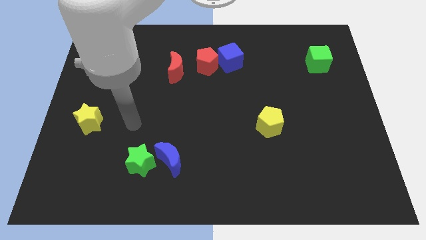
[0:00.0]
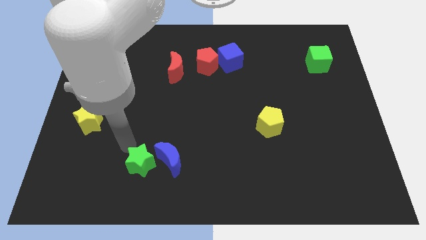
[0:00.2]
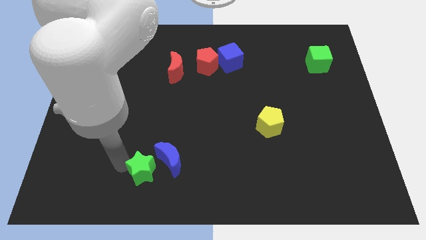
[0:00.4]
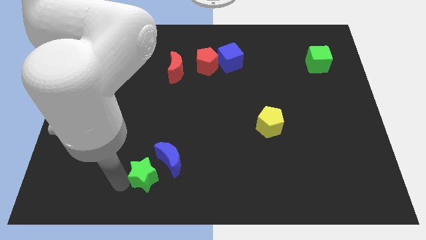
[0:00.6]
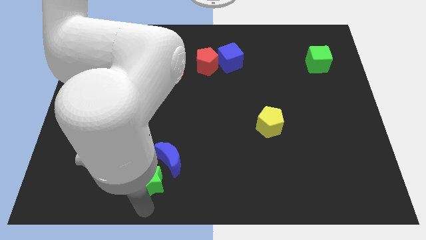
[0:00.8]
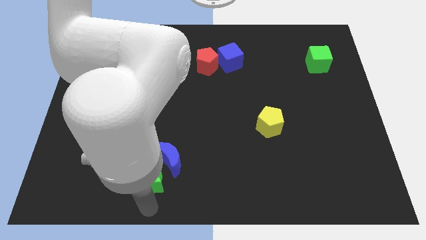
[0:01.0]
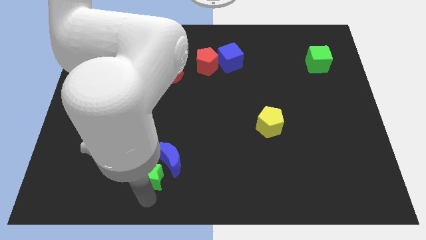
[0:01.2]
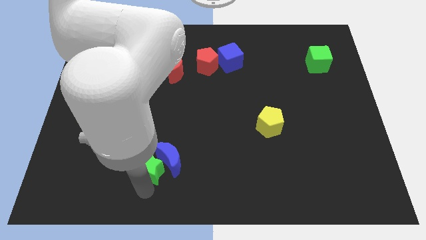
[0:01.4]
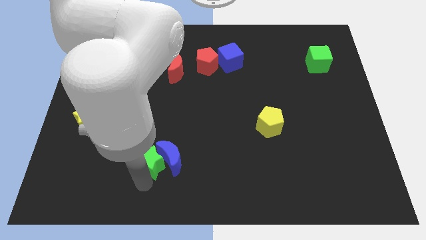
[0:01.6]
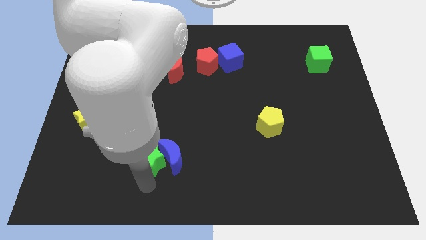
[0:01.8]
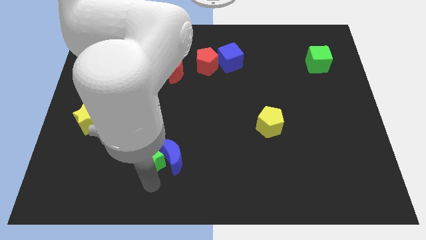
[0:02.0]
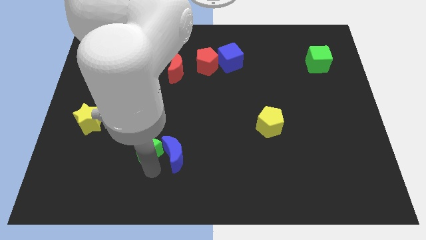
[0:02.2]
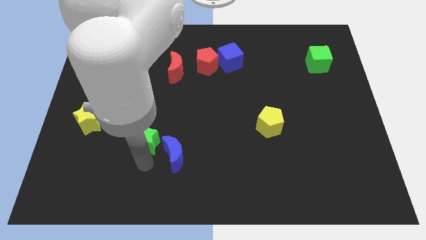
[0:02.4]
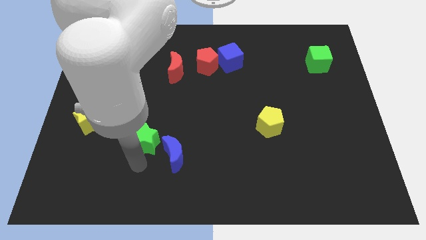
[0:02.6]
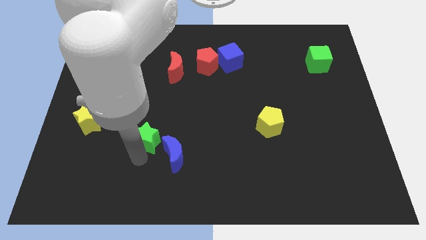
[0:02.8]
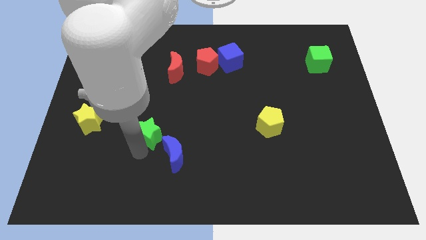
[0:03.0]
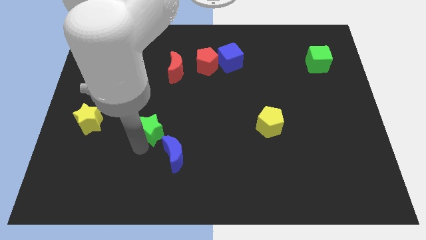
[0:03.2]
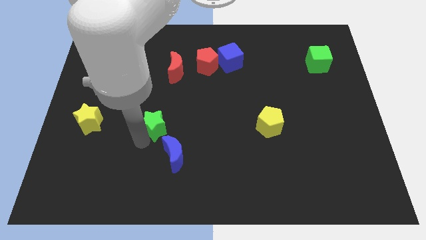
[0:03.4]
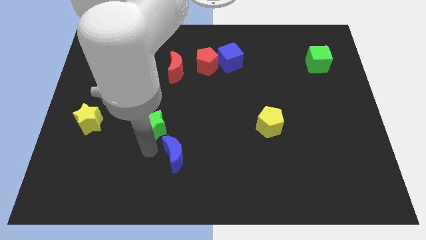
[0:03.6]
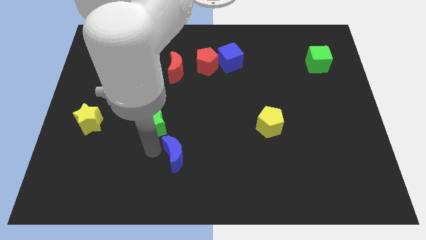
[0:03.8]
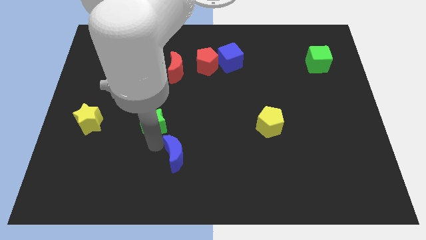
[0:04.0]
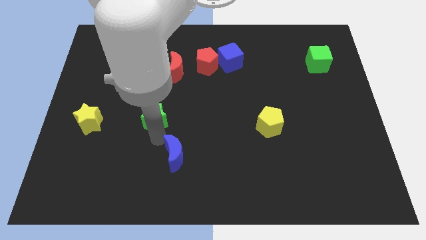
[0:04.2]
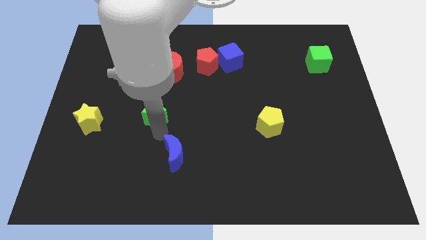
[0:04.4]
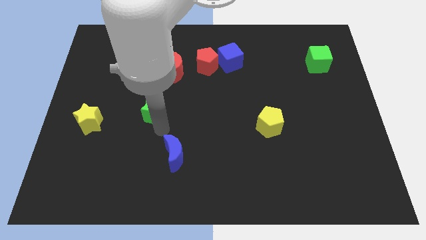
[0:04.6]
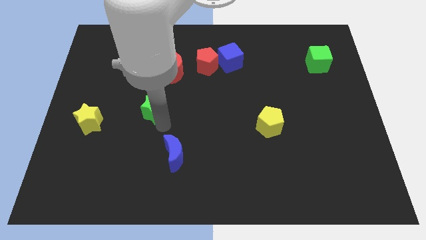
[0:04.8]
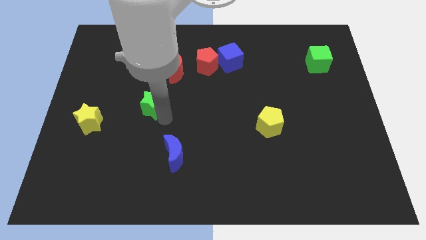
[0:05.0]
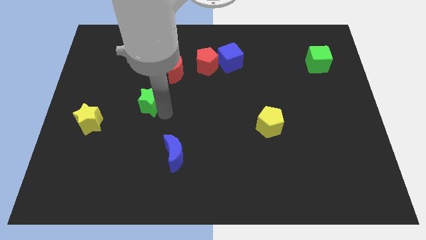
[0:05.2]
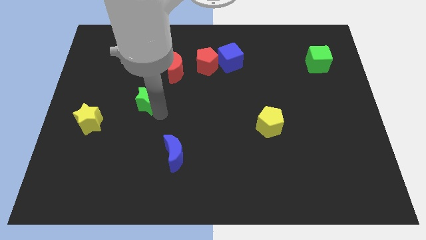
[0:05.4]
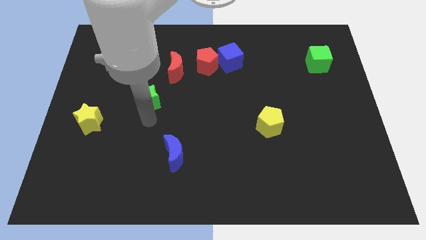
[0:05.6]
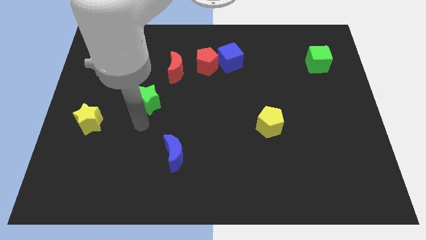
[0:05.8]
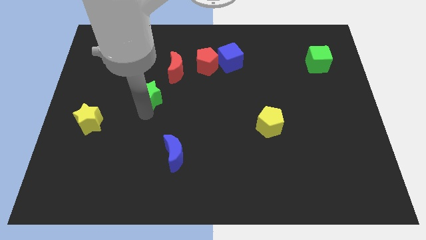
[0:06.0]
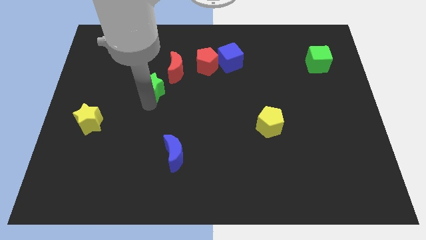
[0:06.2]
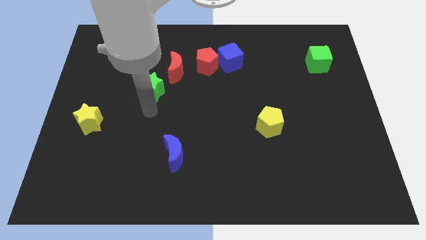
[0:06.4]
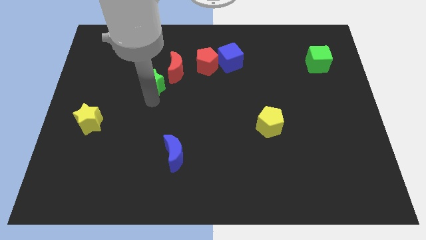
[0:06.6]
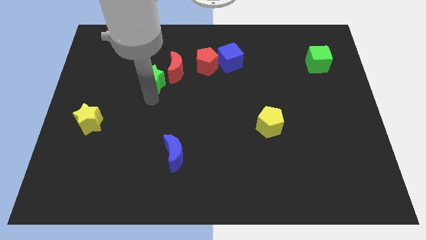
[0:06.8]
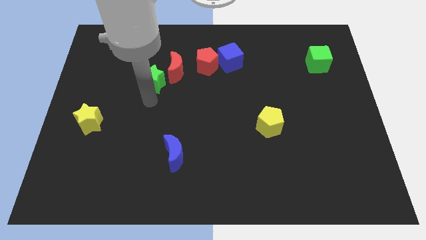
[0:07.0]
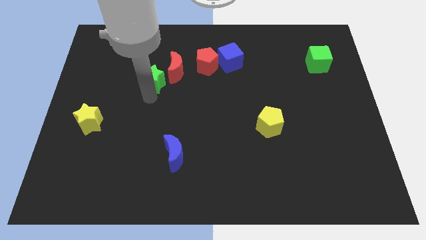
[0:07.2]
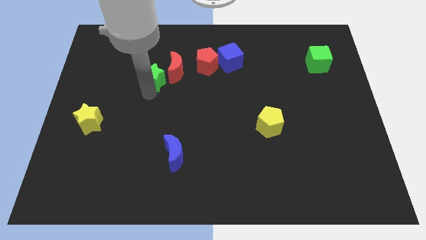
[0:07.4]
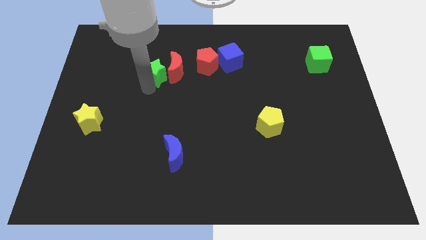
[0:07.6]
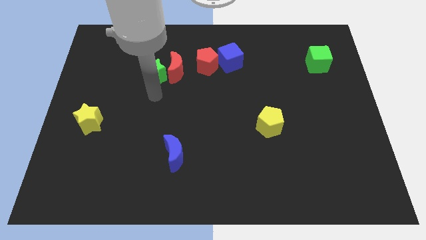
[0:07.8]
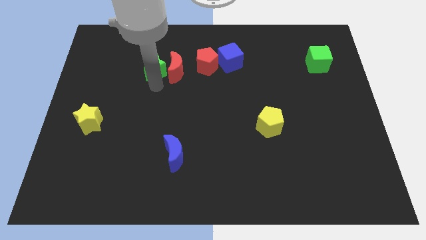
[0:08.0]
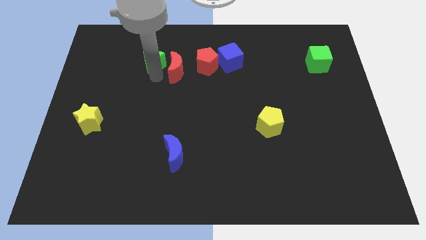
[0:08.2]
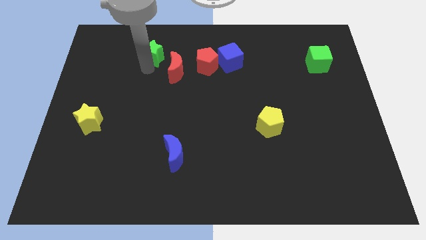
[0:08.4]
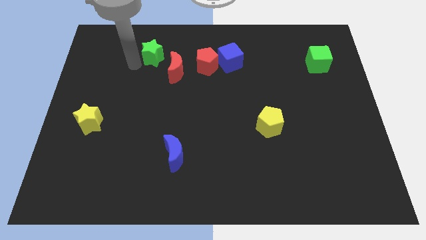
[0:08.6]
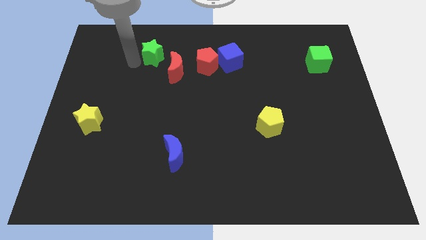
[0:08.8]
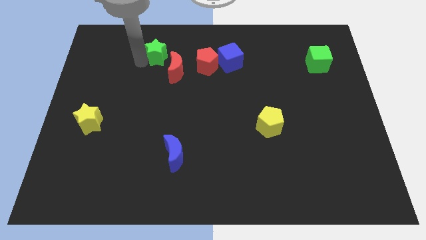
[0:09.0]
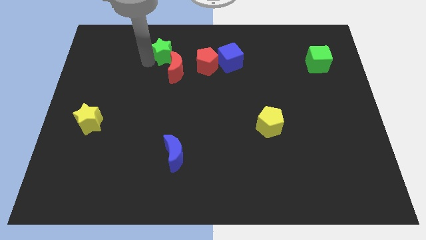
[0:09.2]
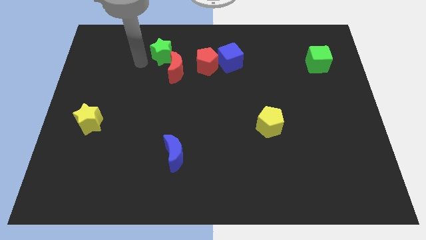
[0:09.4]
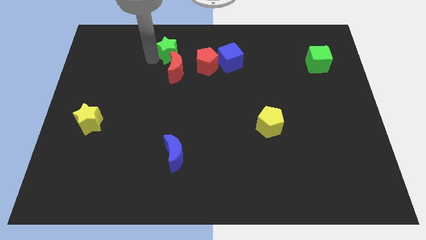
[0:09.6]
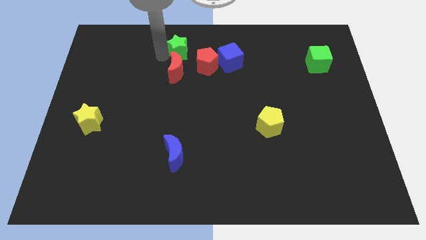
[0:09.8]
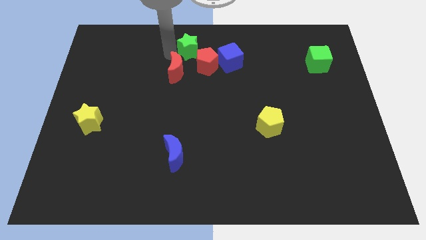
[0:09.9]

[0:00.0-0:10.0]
push the green star to the top side

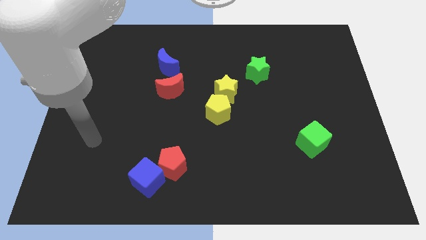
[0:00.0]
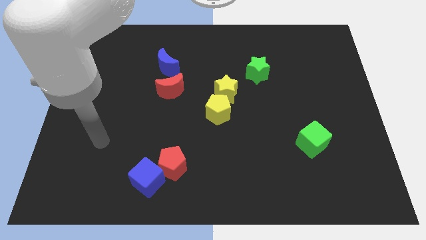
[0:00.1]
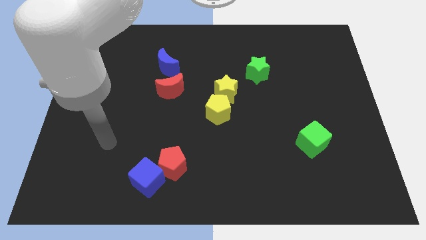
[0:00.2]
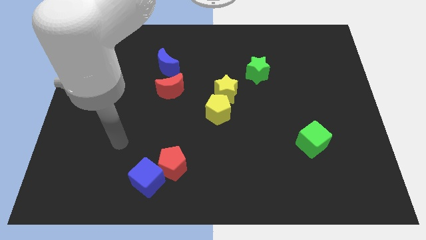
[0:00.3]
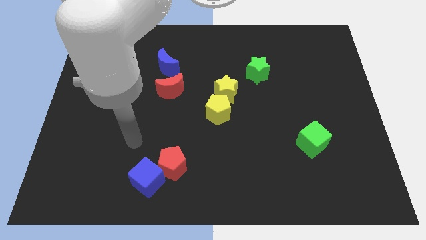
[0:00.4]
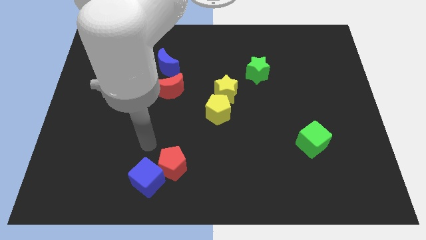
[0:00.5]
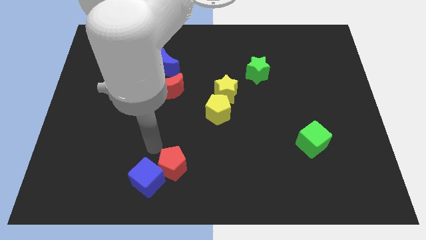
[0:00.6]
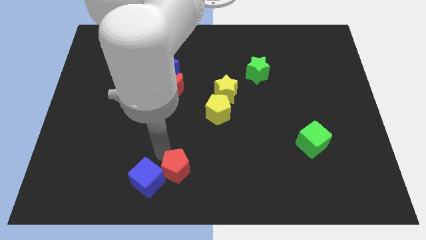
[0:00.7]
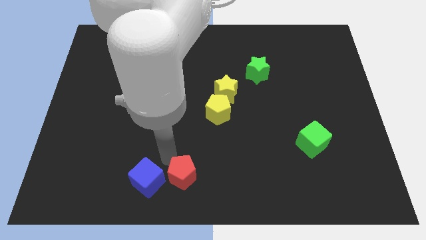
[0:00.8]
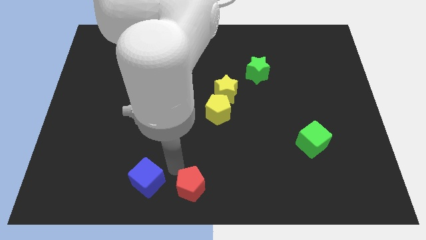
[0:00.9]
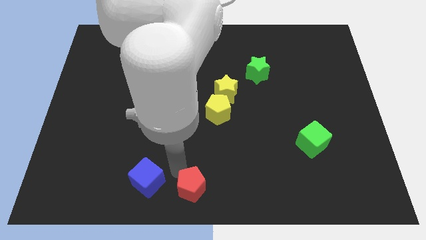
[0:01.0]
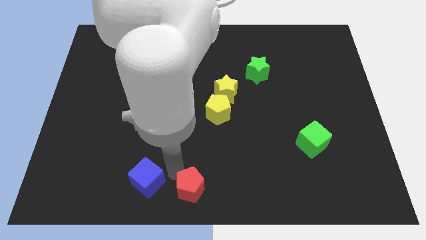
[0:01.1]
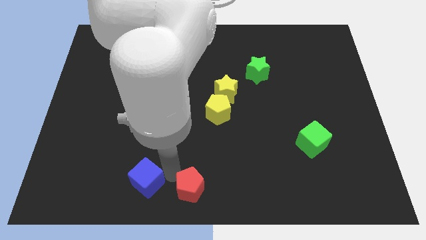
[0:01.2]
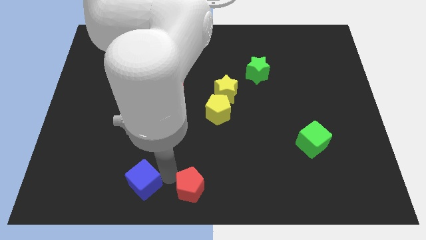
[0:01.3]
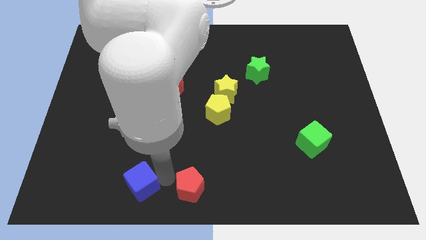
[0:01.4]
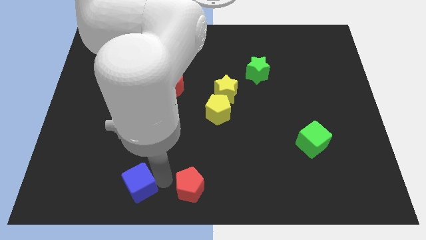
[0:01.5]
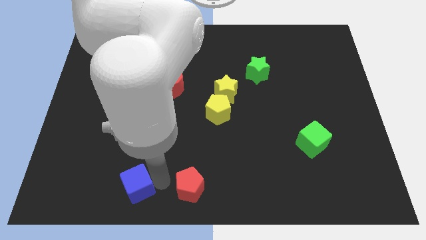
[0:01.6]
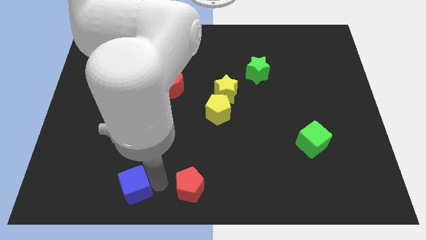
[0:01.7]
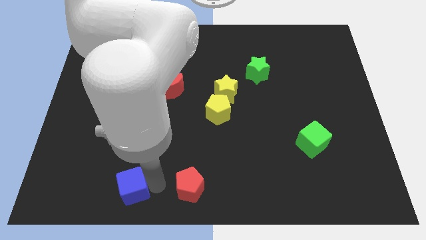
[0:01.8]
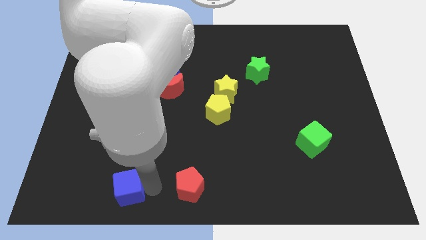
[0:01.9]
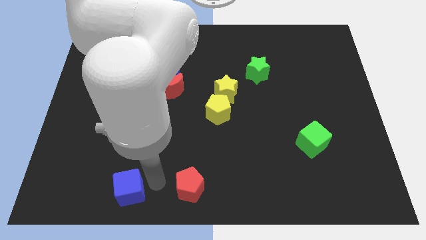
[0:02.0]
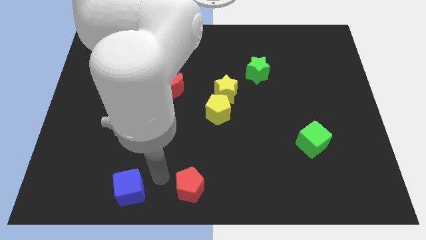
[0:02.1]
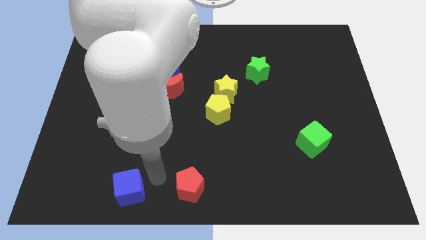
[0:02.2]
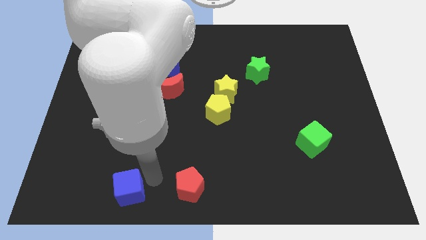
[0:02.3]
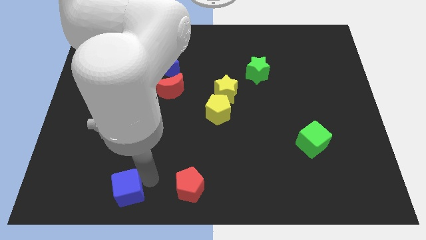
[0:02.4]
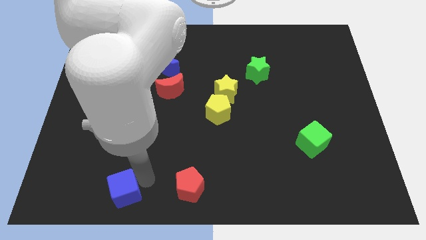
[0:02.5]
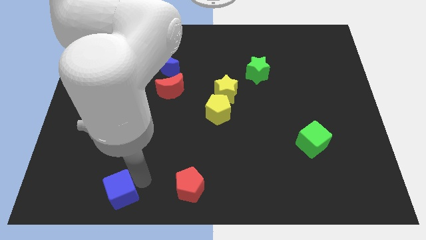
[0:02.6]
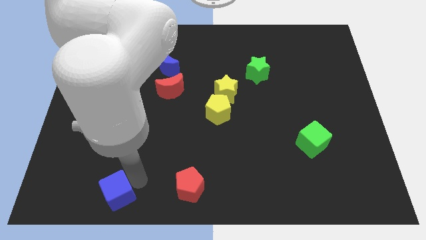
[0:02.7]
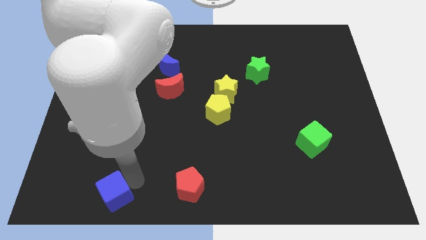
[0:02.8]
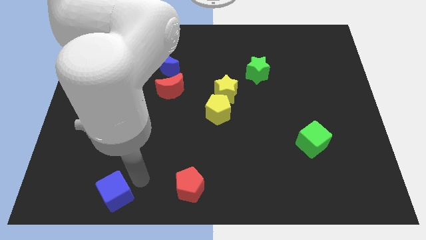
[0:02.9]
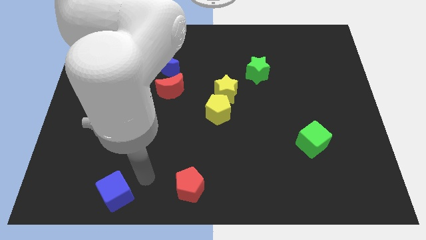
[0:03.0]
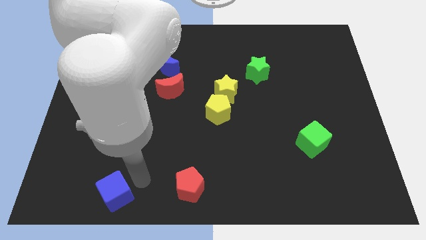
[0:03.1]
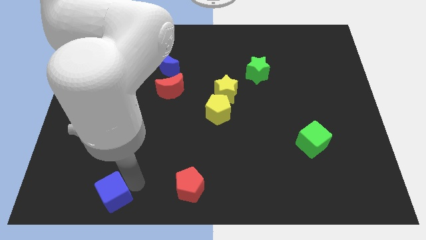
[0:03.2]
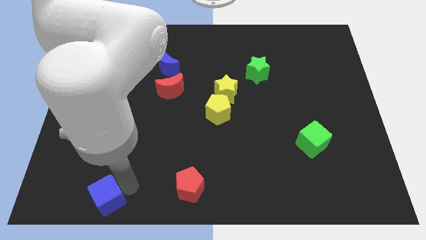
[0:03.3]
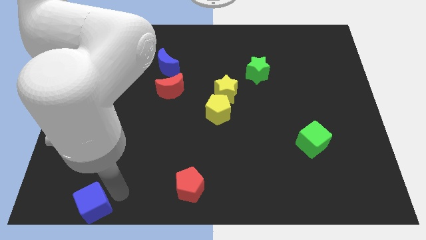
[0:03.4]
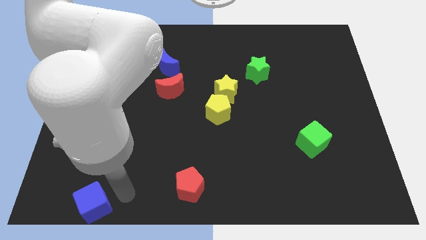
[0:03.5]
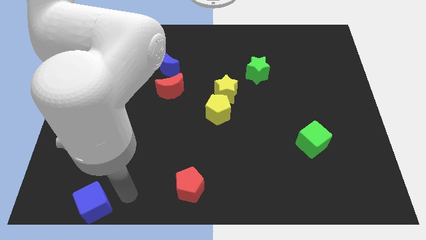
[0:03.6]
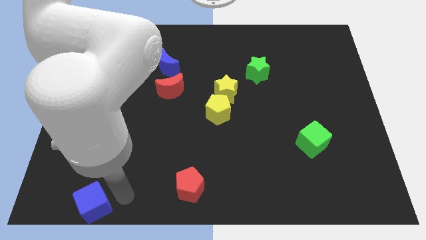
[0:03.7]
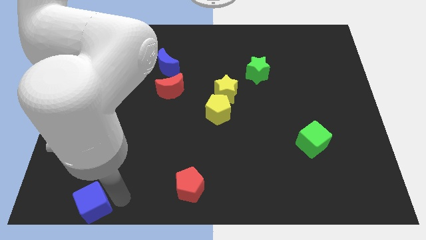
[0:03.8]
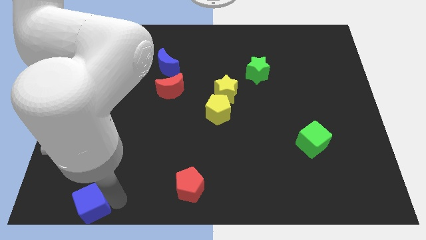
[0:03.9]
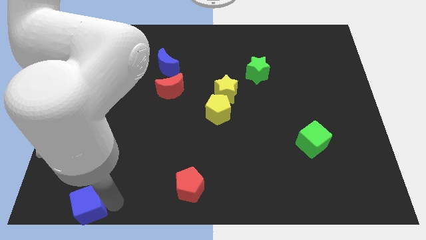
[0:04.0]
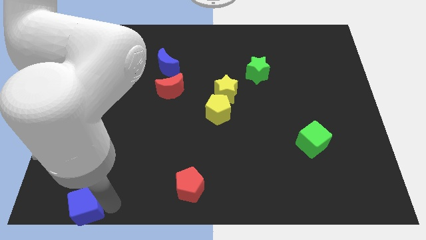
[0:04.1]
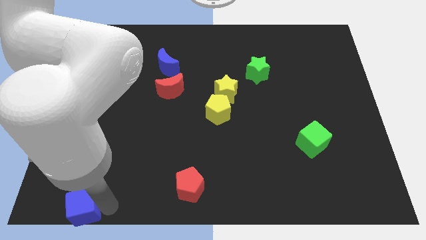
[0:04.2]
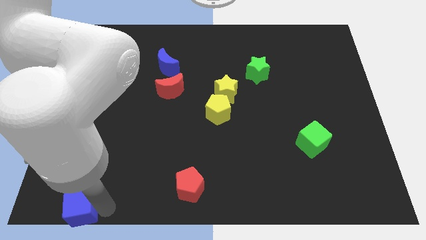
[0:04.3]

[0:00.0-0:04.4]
slide the blue cube to the bottom left of the board
